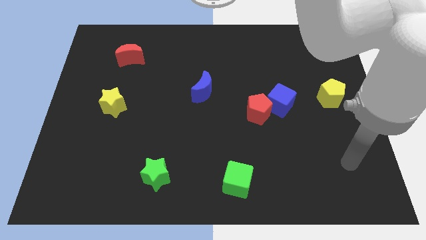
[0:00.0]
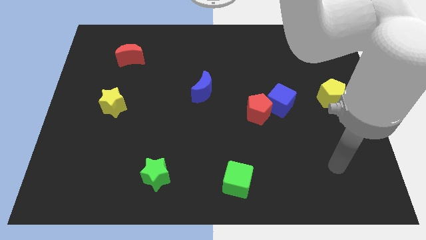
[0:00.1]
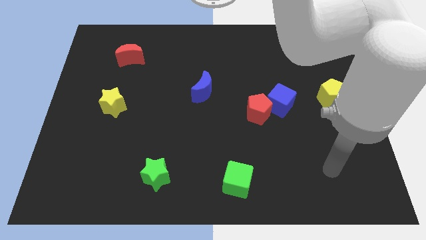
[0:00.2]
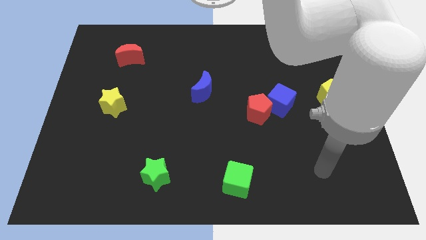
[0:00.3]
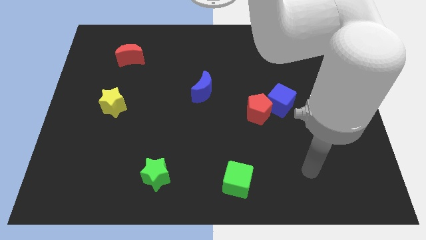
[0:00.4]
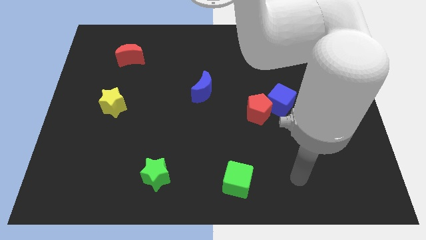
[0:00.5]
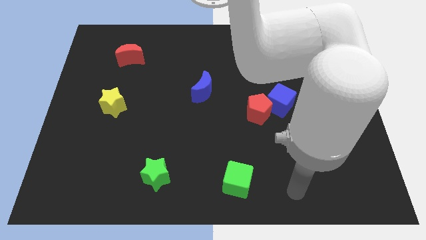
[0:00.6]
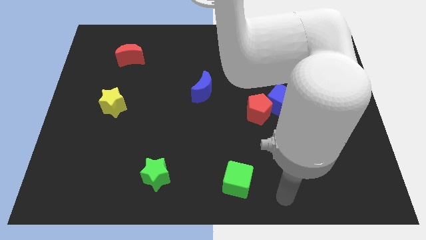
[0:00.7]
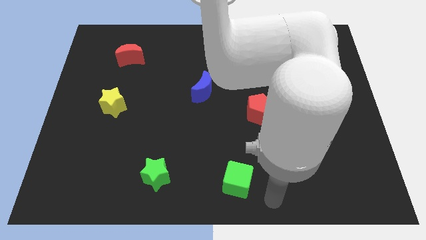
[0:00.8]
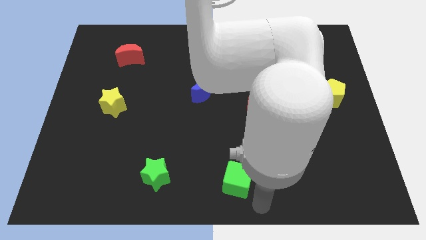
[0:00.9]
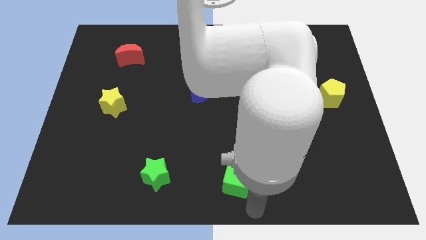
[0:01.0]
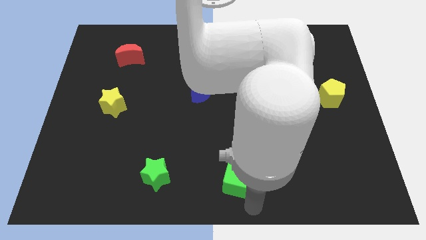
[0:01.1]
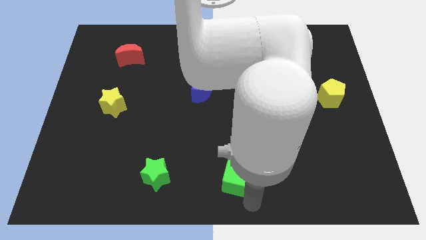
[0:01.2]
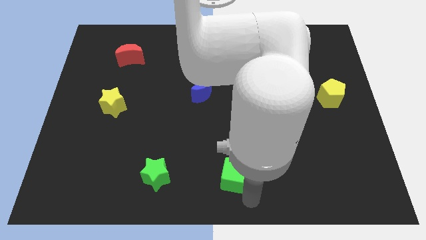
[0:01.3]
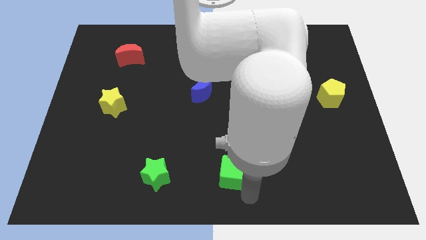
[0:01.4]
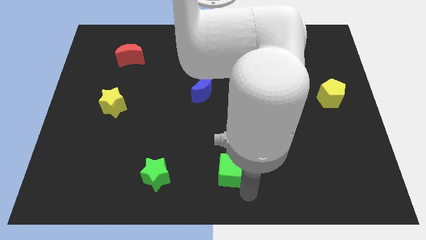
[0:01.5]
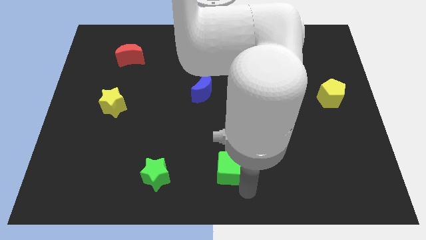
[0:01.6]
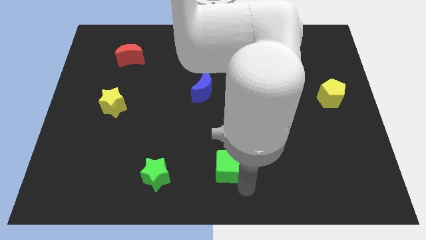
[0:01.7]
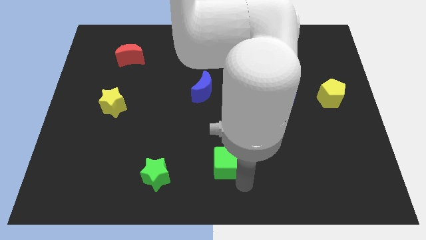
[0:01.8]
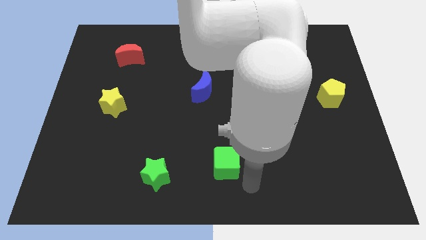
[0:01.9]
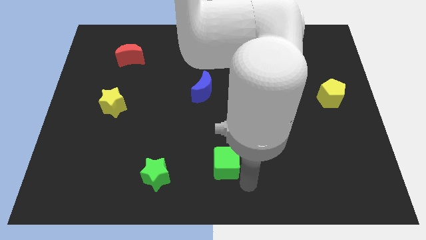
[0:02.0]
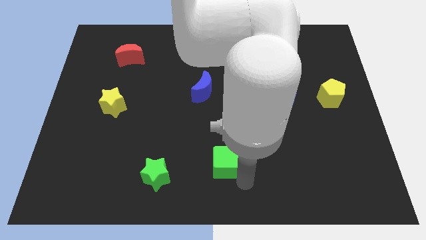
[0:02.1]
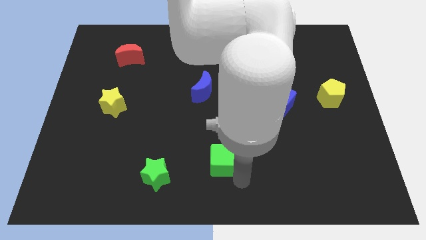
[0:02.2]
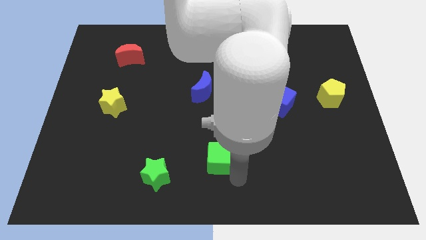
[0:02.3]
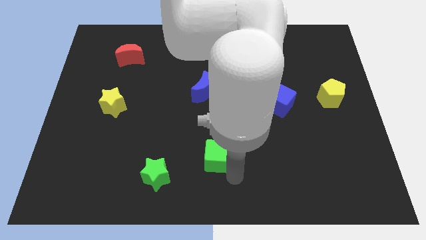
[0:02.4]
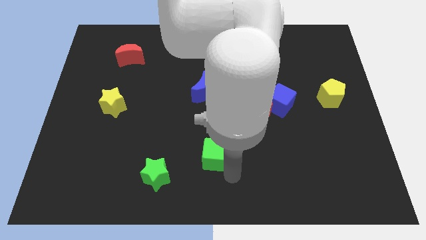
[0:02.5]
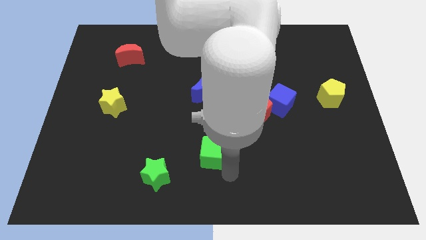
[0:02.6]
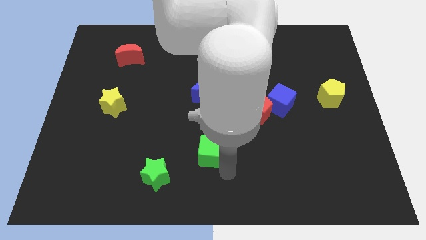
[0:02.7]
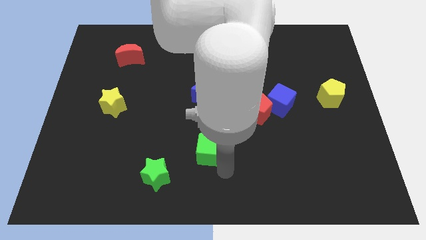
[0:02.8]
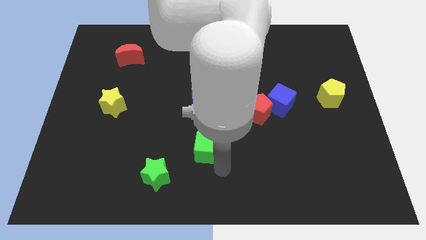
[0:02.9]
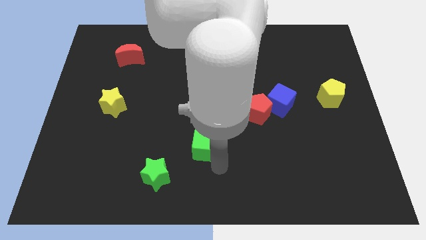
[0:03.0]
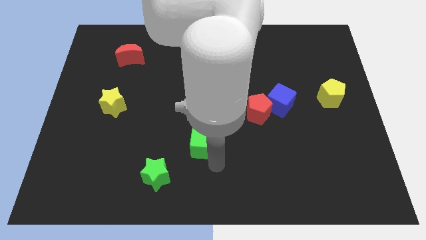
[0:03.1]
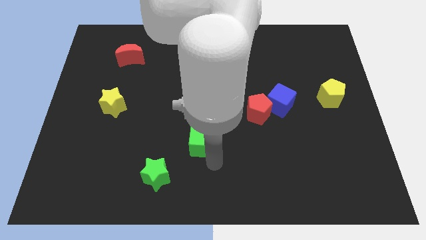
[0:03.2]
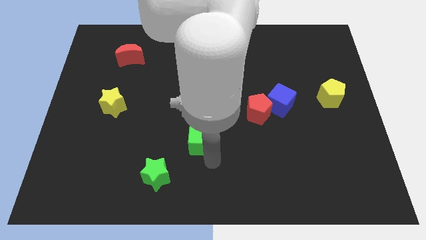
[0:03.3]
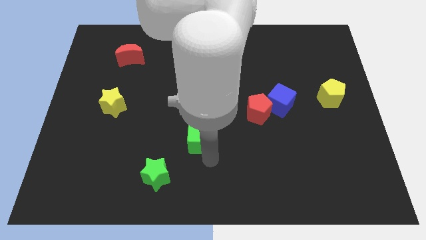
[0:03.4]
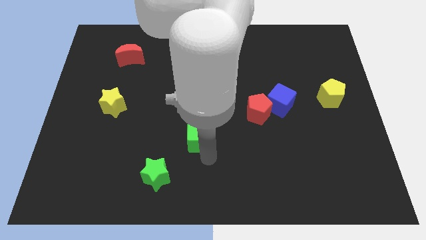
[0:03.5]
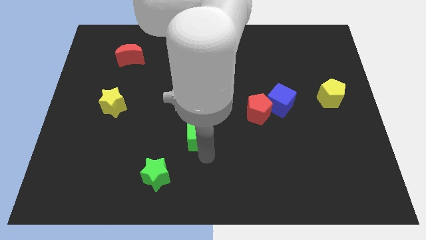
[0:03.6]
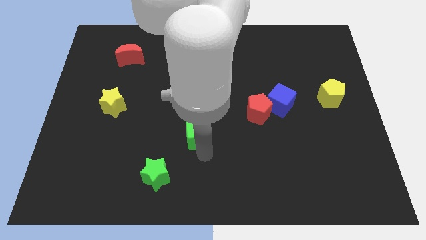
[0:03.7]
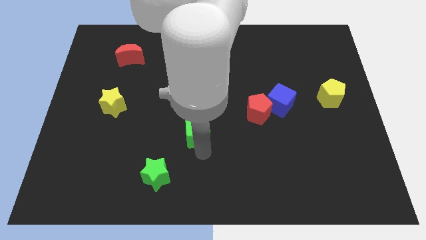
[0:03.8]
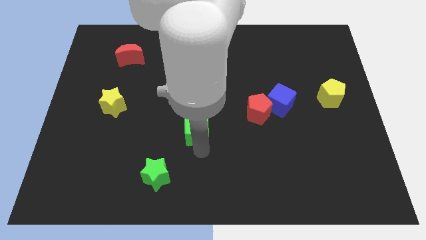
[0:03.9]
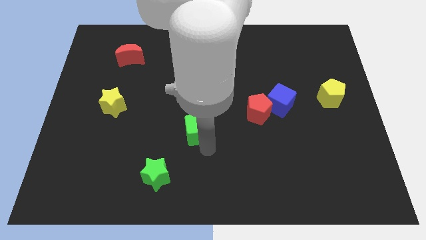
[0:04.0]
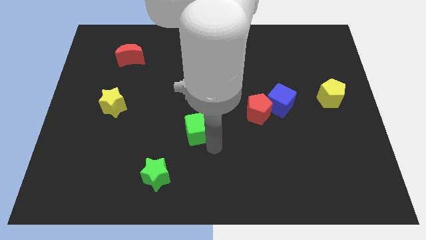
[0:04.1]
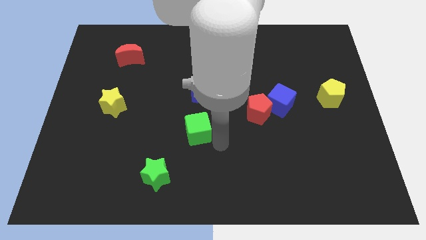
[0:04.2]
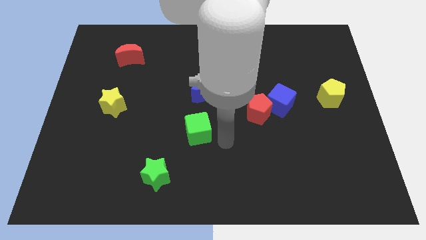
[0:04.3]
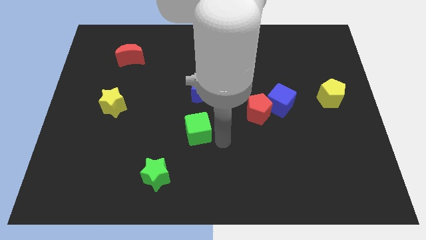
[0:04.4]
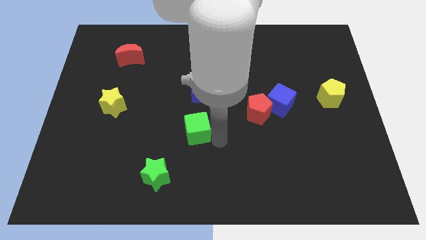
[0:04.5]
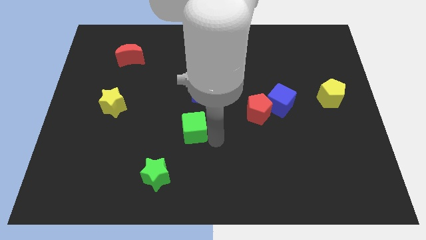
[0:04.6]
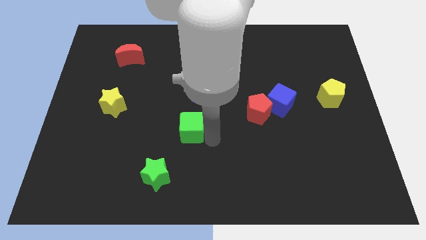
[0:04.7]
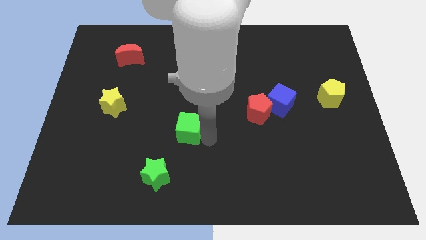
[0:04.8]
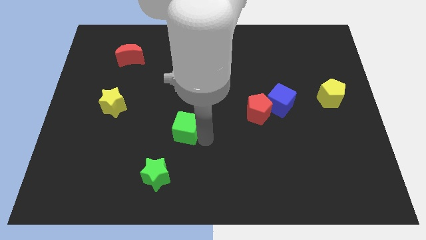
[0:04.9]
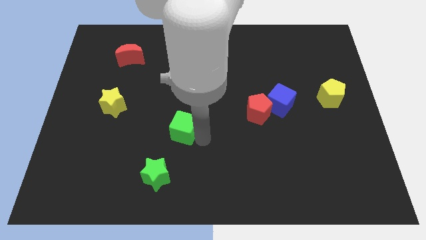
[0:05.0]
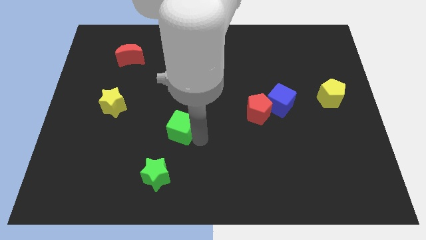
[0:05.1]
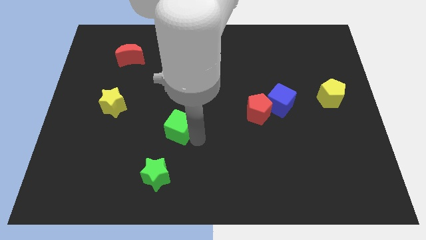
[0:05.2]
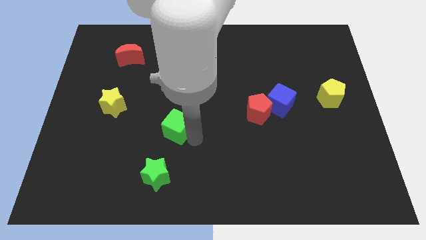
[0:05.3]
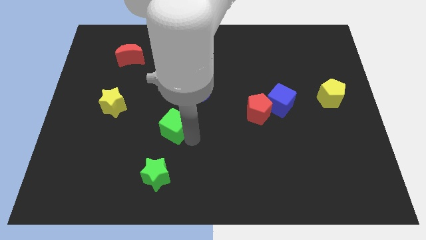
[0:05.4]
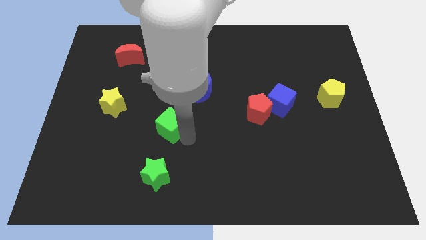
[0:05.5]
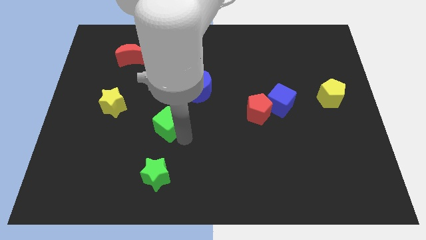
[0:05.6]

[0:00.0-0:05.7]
push the green cube upwards and left

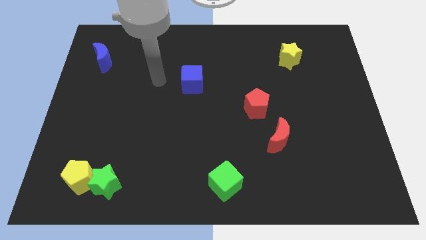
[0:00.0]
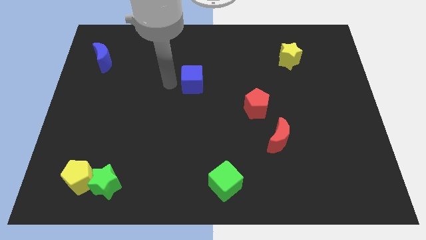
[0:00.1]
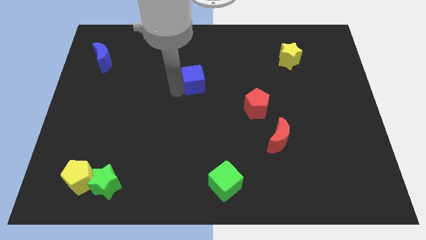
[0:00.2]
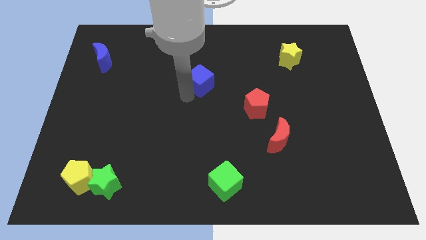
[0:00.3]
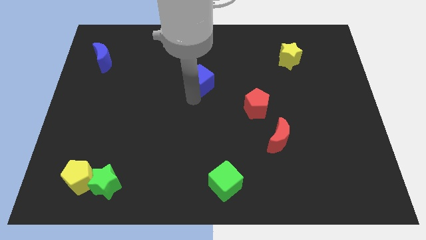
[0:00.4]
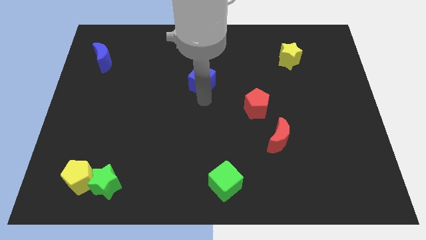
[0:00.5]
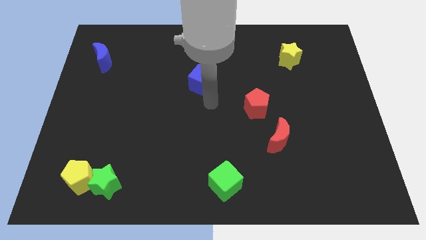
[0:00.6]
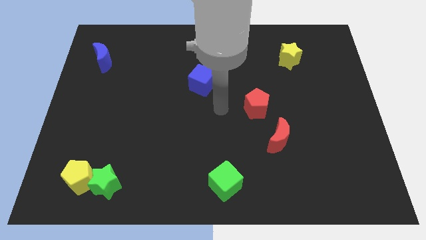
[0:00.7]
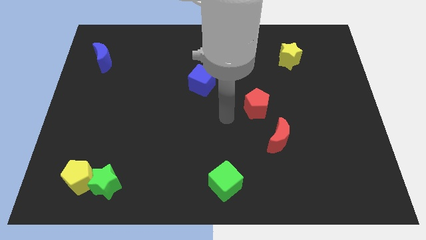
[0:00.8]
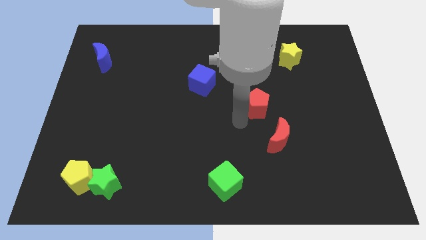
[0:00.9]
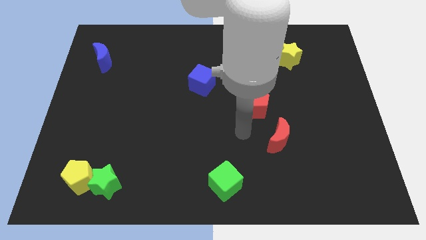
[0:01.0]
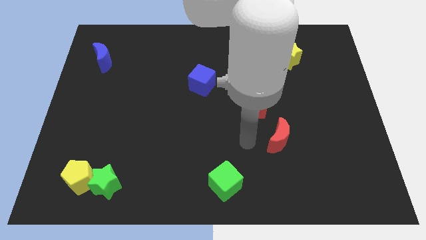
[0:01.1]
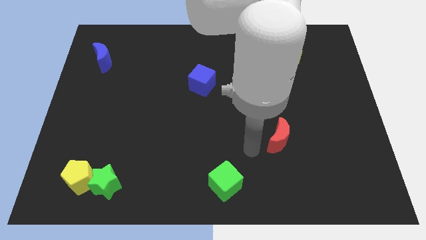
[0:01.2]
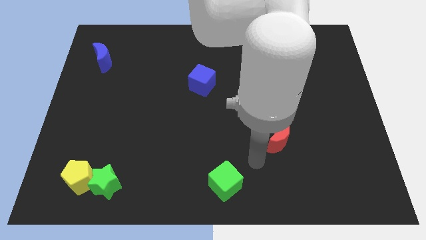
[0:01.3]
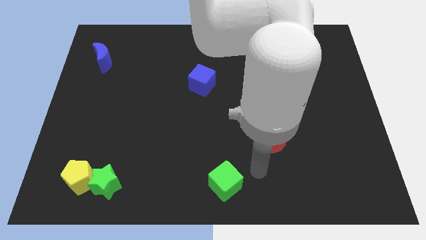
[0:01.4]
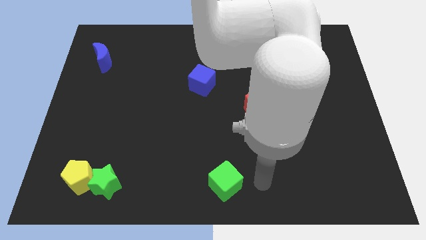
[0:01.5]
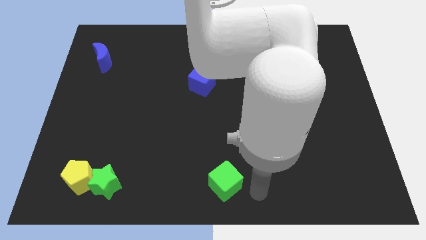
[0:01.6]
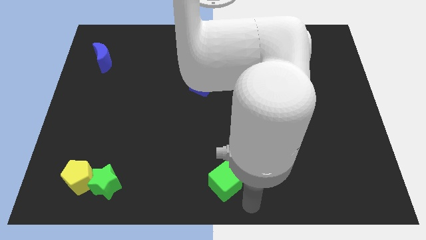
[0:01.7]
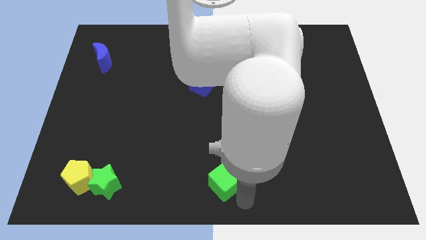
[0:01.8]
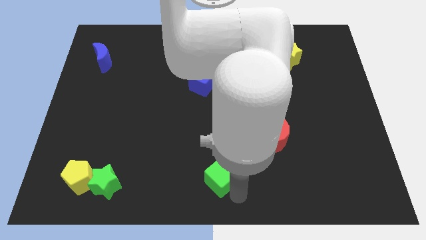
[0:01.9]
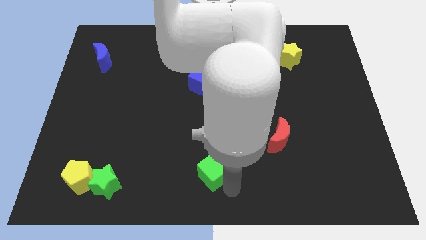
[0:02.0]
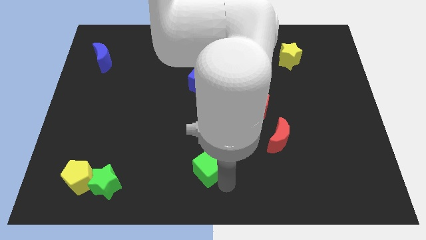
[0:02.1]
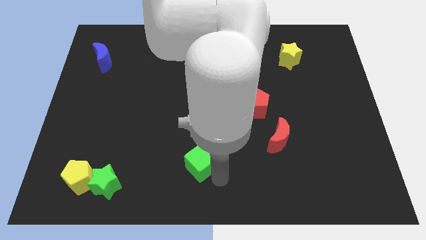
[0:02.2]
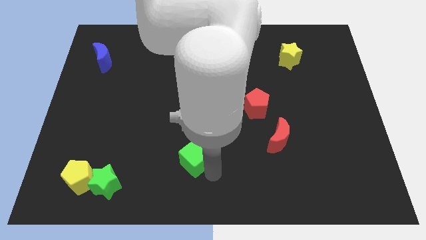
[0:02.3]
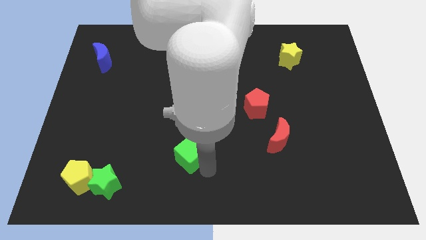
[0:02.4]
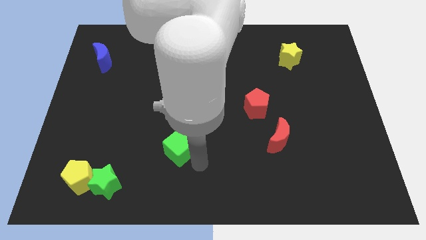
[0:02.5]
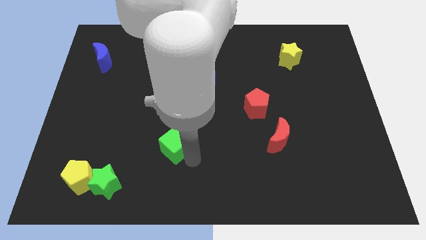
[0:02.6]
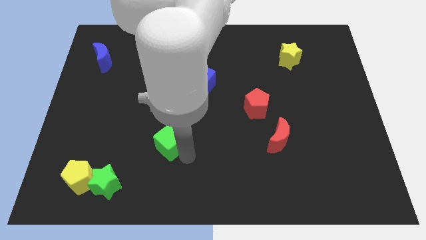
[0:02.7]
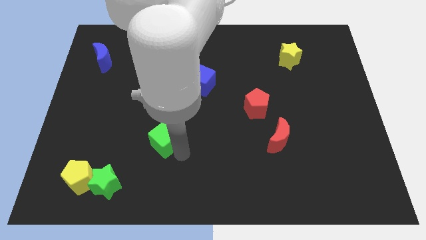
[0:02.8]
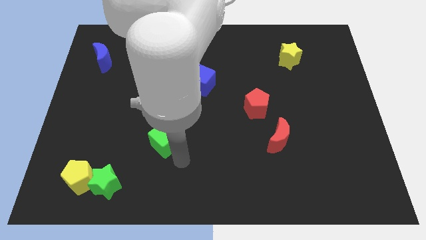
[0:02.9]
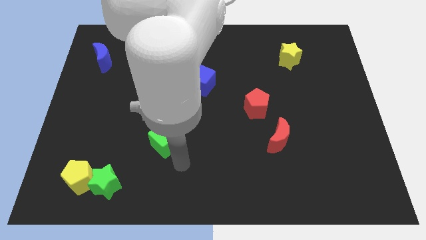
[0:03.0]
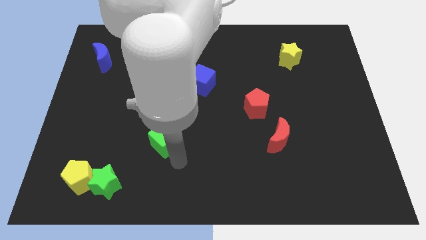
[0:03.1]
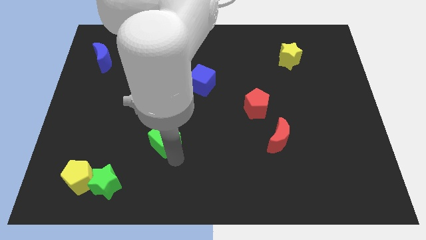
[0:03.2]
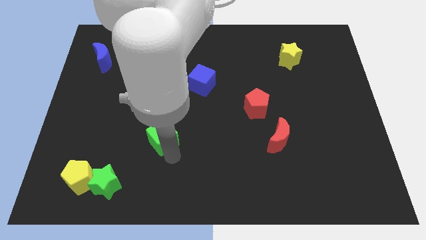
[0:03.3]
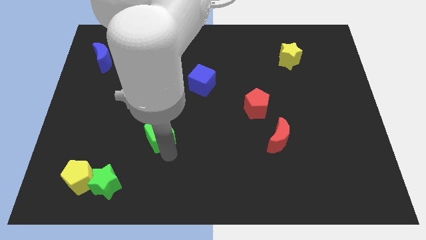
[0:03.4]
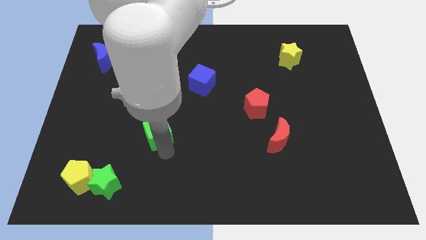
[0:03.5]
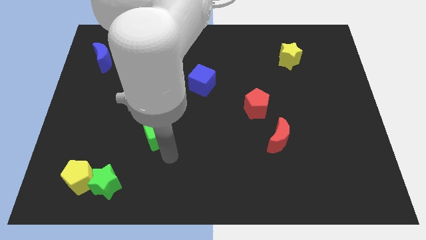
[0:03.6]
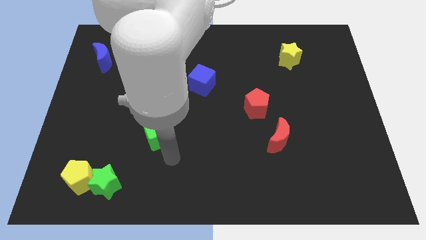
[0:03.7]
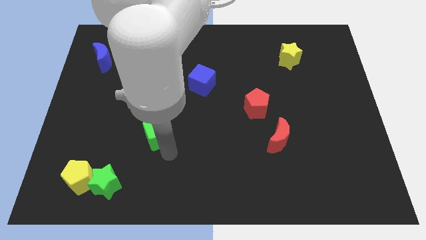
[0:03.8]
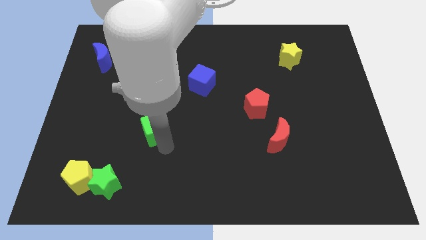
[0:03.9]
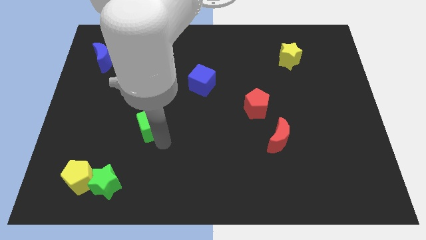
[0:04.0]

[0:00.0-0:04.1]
move the green cube up and to the left
